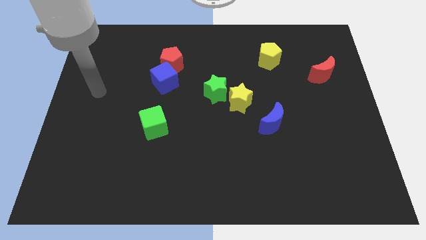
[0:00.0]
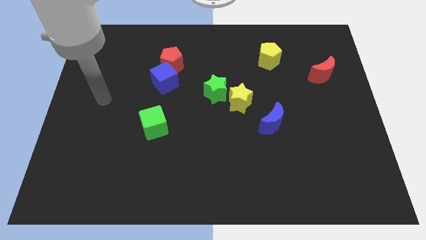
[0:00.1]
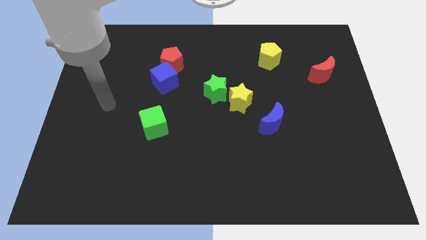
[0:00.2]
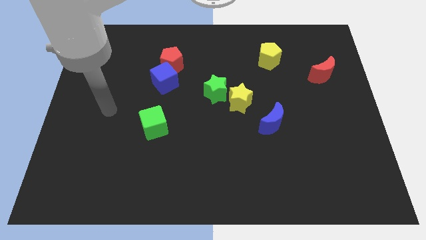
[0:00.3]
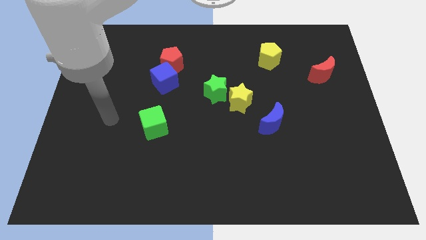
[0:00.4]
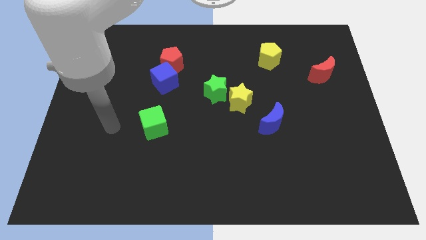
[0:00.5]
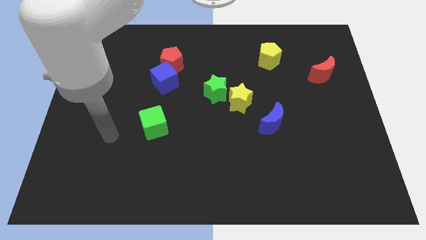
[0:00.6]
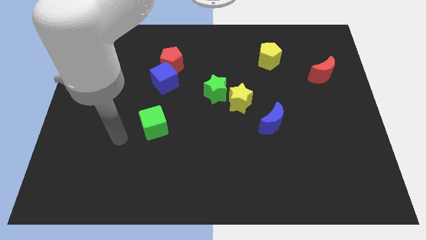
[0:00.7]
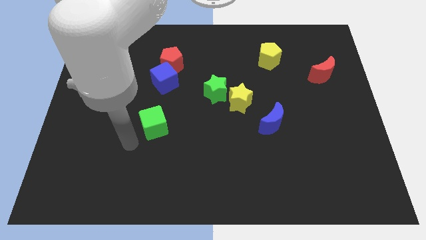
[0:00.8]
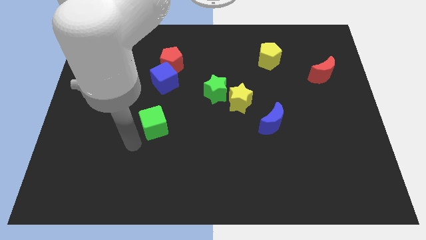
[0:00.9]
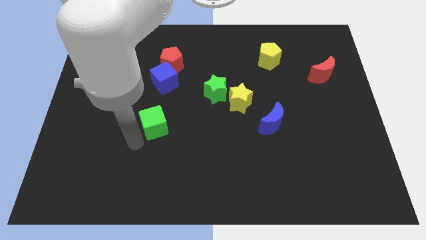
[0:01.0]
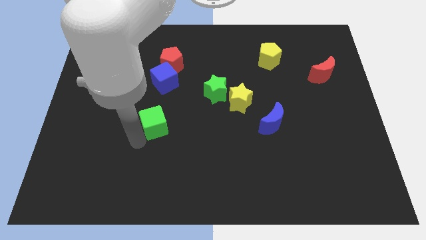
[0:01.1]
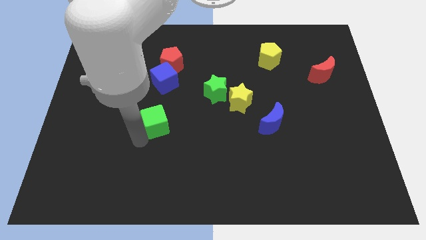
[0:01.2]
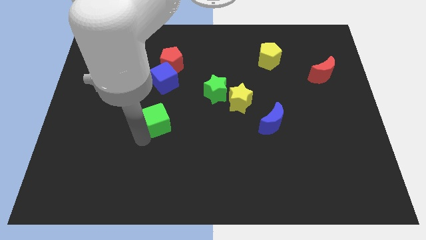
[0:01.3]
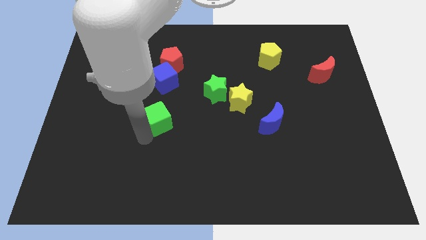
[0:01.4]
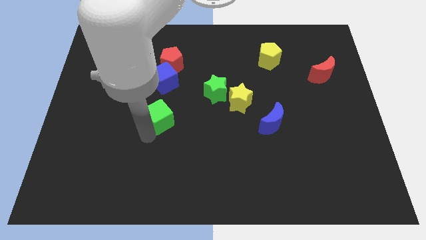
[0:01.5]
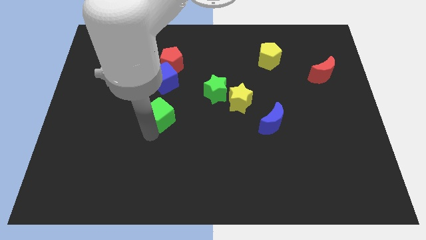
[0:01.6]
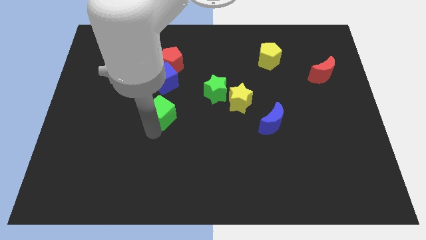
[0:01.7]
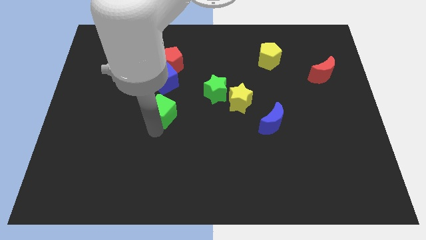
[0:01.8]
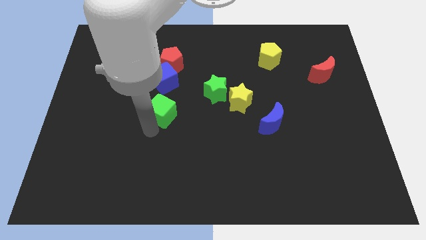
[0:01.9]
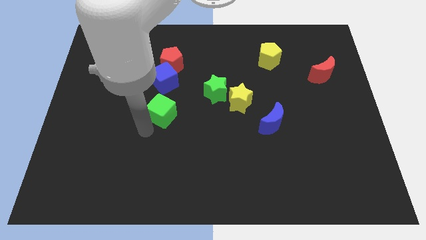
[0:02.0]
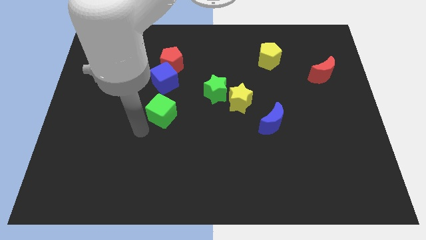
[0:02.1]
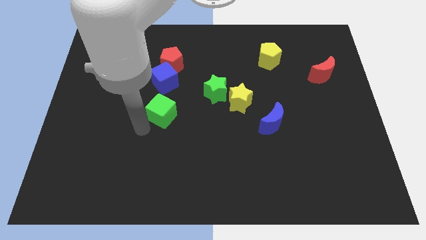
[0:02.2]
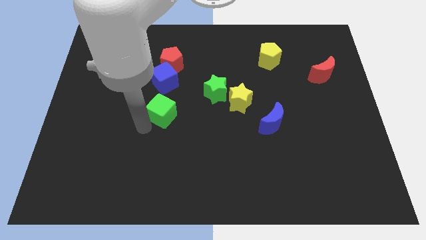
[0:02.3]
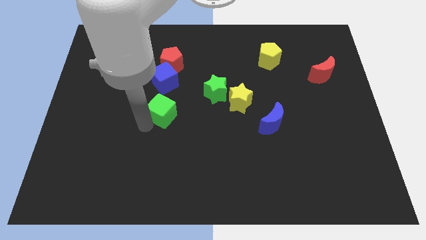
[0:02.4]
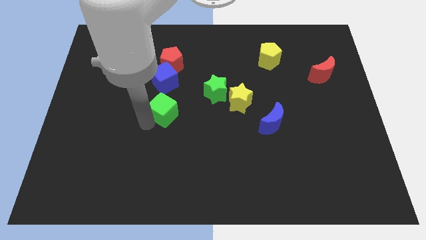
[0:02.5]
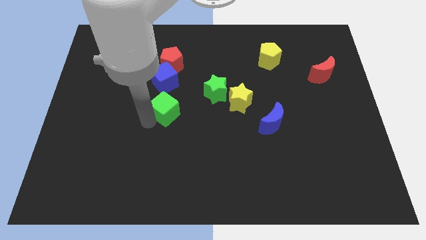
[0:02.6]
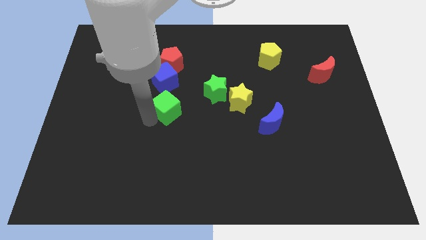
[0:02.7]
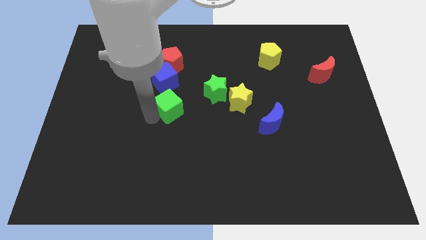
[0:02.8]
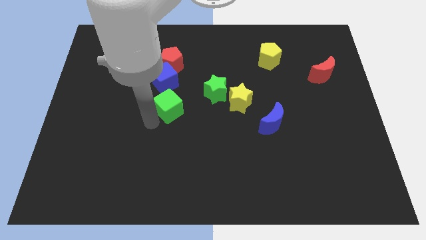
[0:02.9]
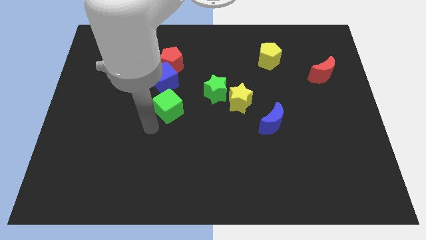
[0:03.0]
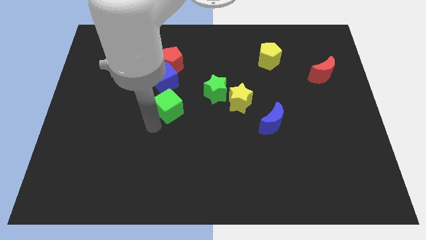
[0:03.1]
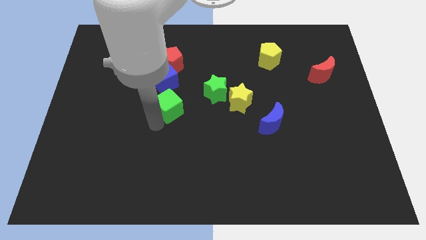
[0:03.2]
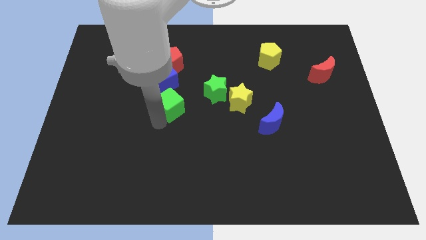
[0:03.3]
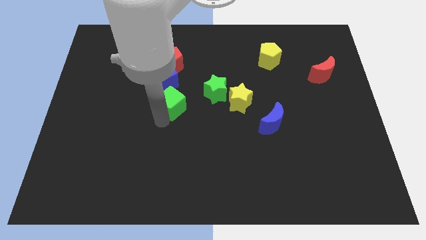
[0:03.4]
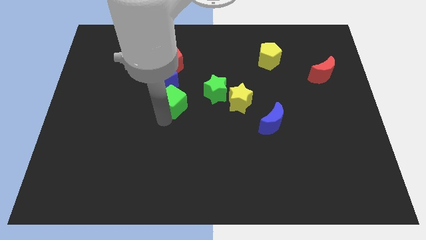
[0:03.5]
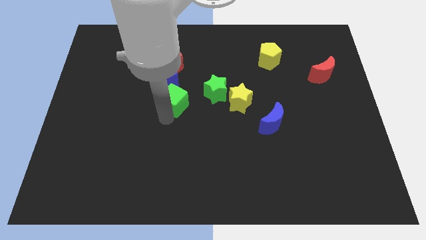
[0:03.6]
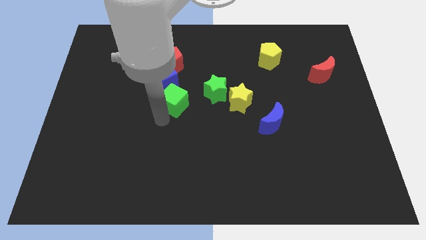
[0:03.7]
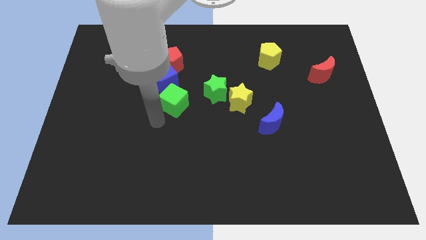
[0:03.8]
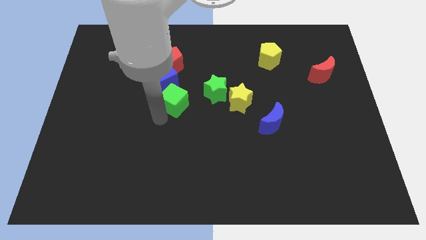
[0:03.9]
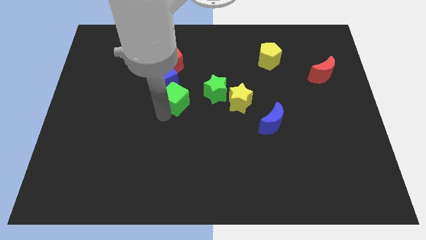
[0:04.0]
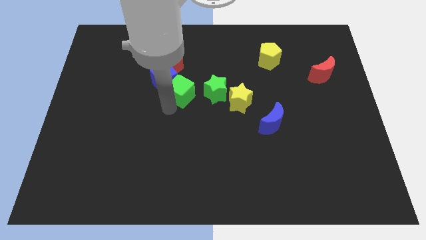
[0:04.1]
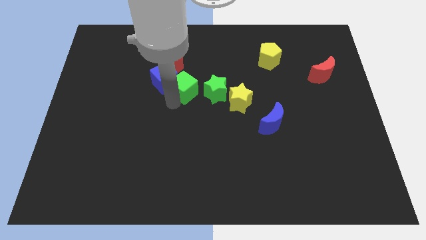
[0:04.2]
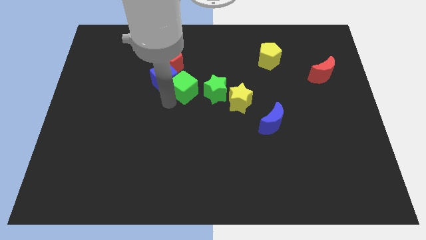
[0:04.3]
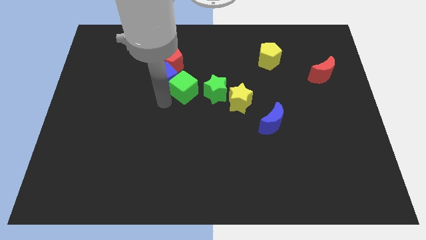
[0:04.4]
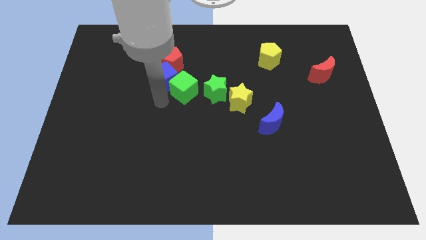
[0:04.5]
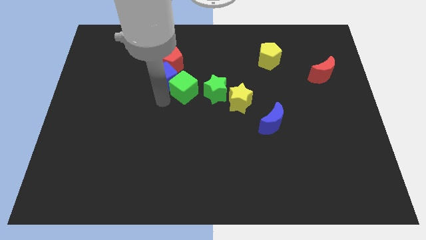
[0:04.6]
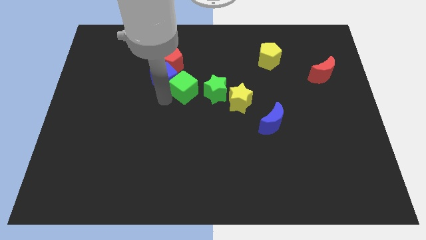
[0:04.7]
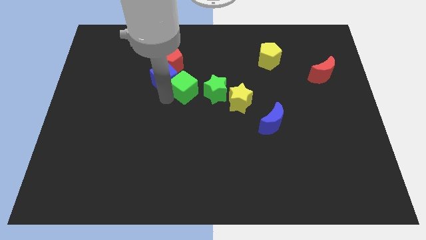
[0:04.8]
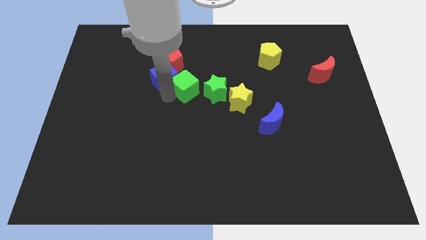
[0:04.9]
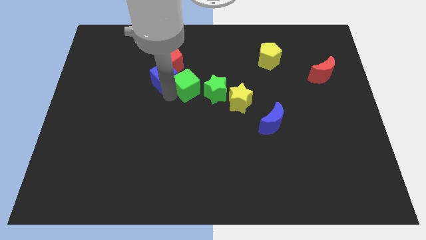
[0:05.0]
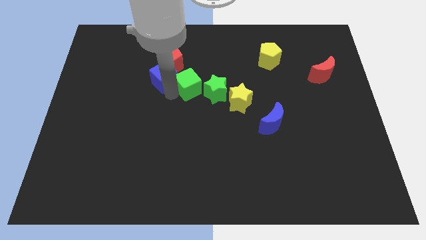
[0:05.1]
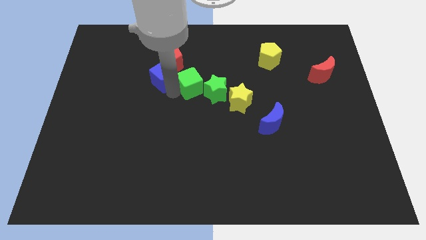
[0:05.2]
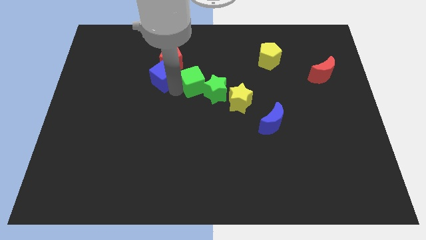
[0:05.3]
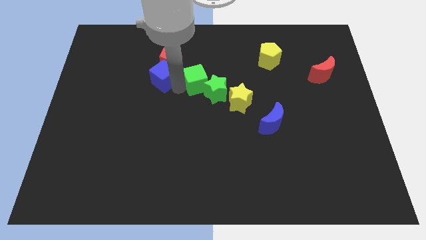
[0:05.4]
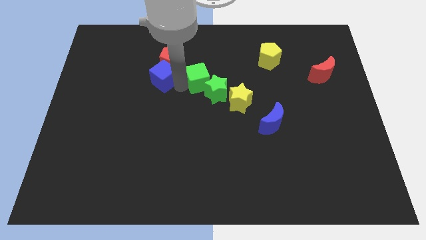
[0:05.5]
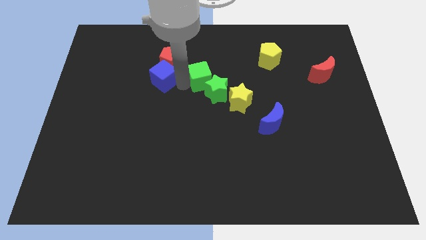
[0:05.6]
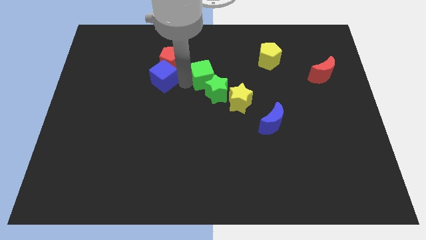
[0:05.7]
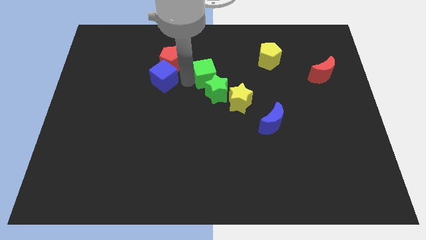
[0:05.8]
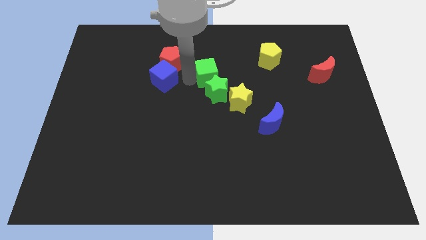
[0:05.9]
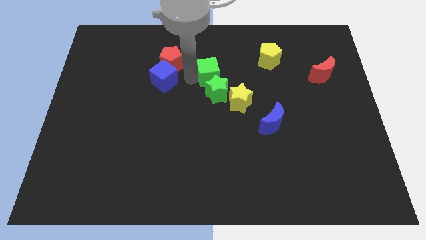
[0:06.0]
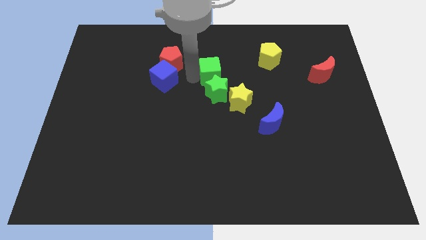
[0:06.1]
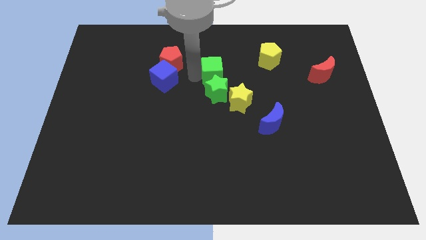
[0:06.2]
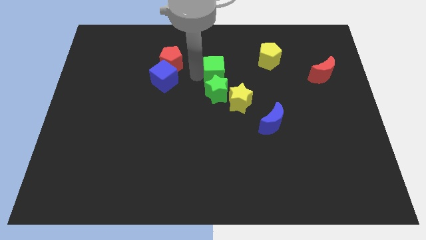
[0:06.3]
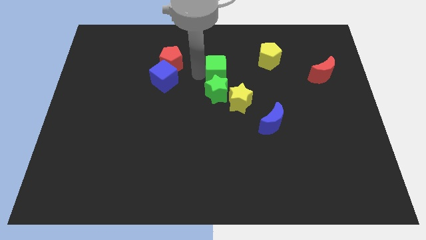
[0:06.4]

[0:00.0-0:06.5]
put the green cube to the top right of the green star
